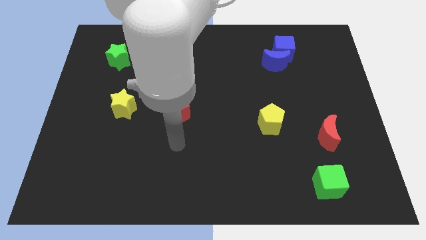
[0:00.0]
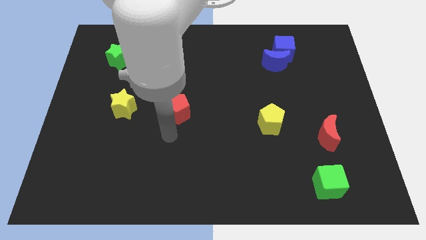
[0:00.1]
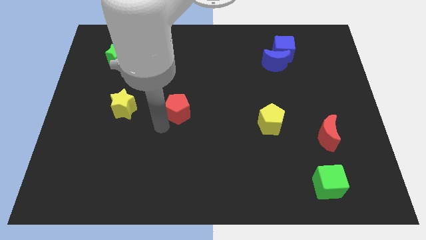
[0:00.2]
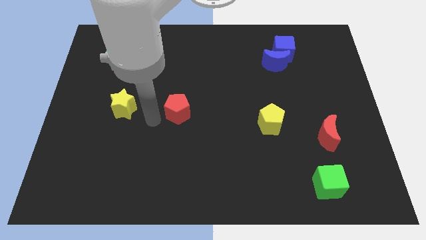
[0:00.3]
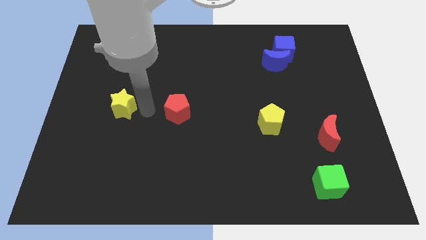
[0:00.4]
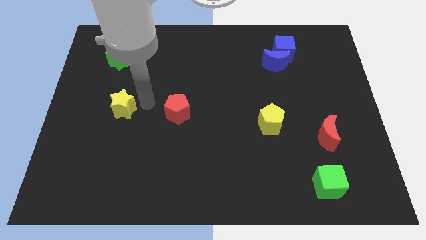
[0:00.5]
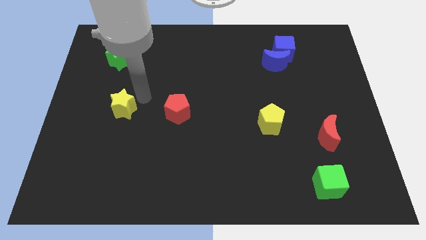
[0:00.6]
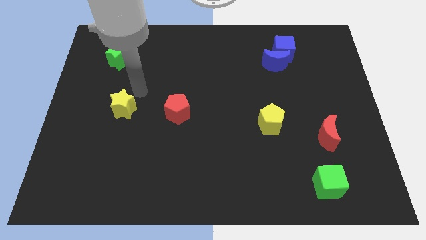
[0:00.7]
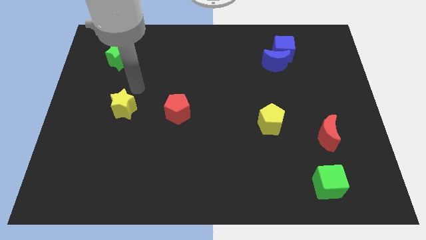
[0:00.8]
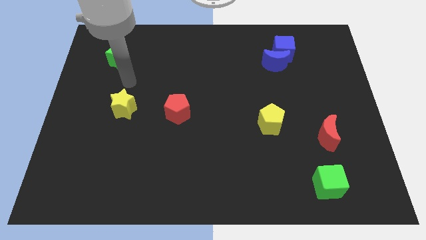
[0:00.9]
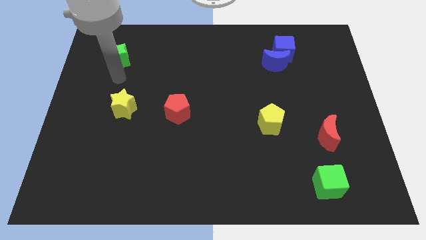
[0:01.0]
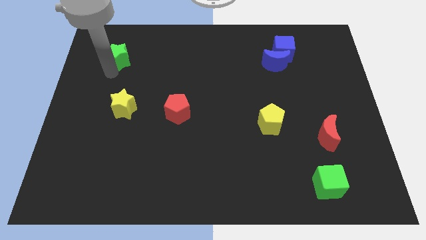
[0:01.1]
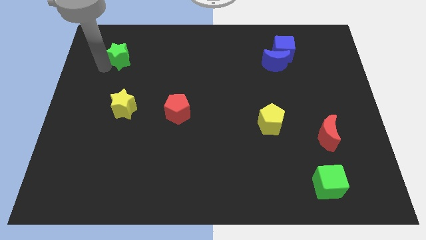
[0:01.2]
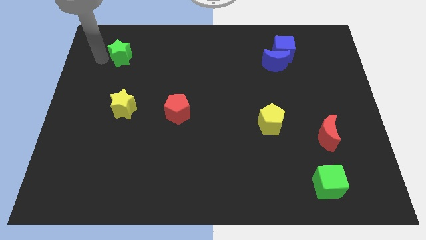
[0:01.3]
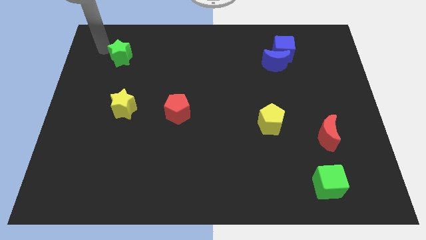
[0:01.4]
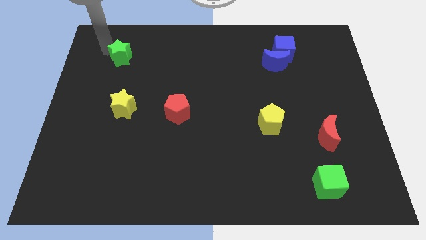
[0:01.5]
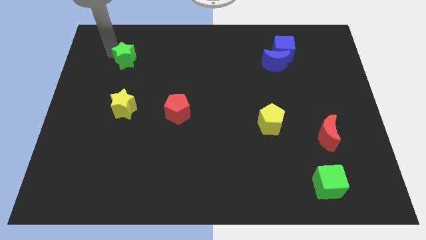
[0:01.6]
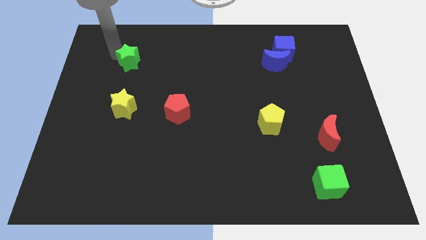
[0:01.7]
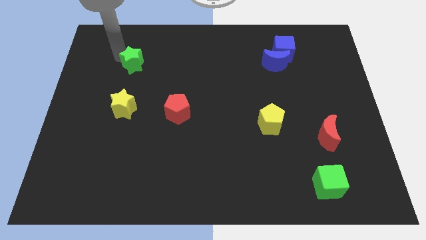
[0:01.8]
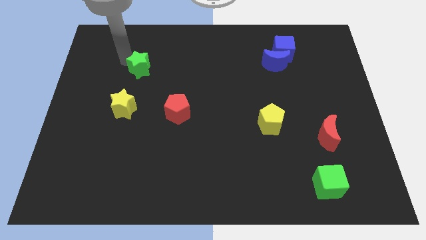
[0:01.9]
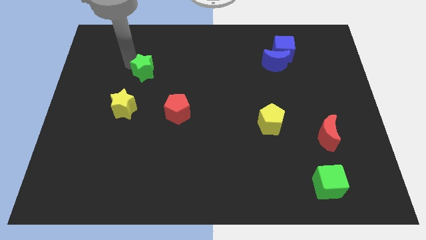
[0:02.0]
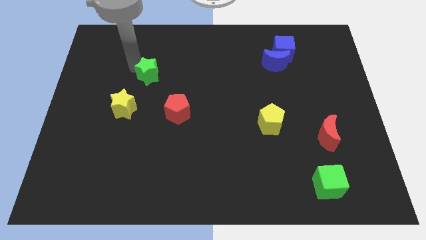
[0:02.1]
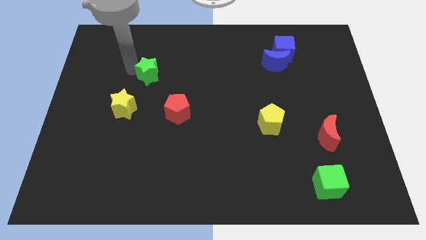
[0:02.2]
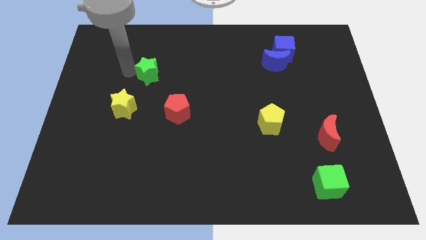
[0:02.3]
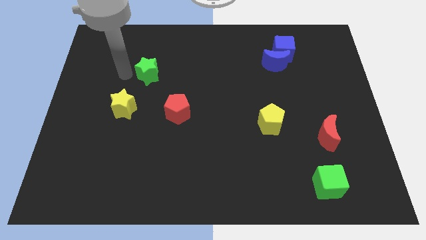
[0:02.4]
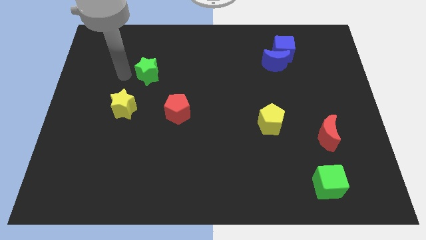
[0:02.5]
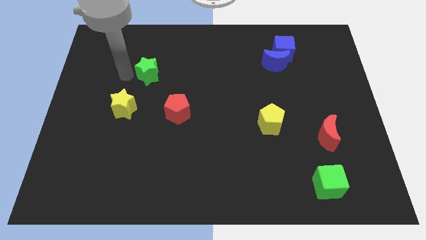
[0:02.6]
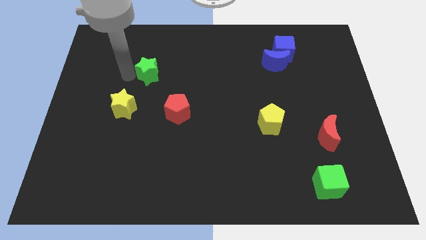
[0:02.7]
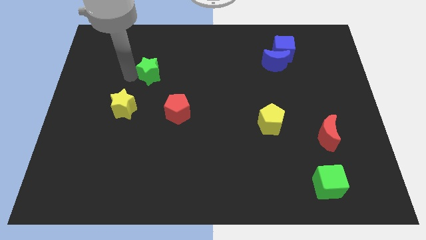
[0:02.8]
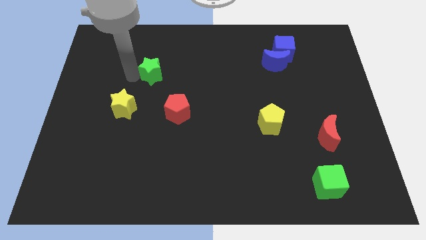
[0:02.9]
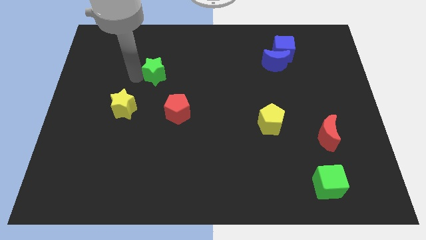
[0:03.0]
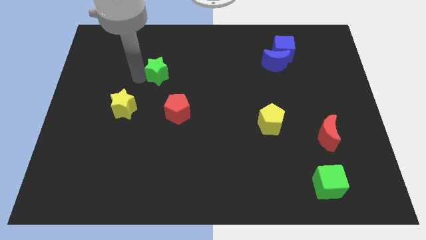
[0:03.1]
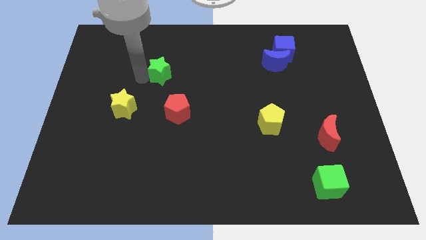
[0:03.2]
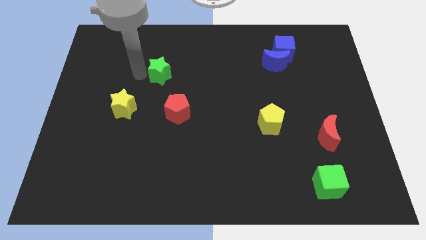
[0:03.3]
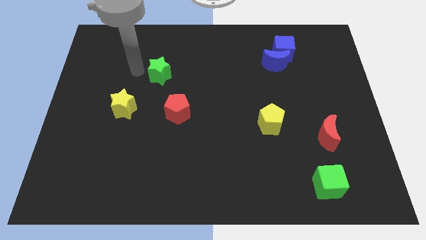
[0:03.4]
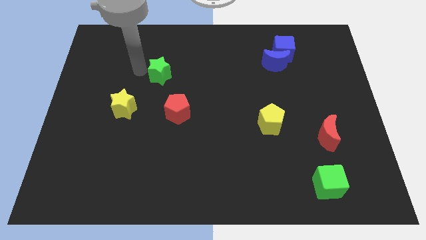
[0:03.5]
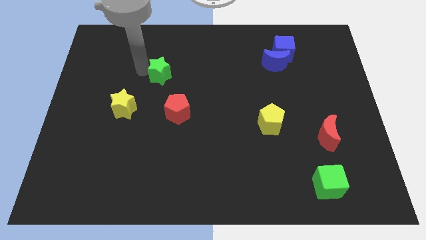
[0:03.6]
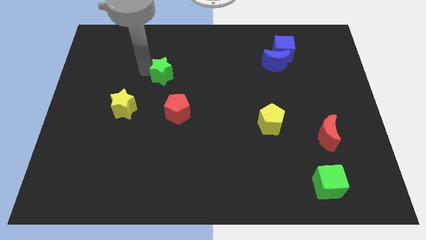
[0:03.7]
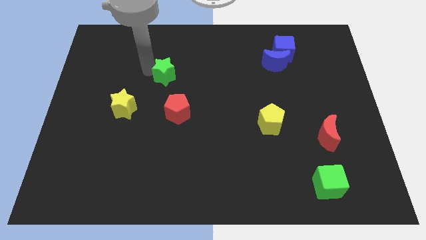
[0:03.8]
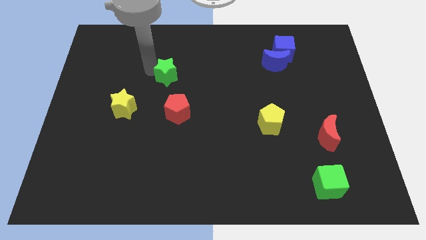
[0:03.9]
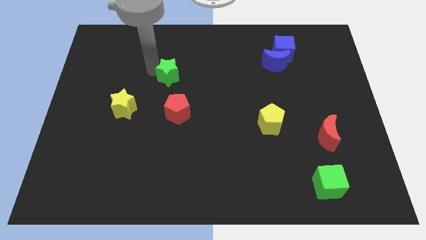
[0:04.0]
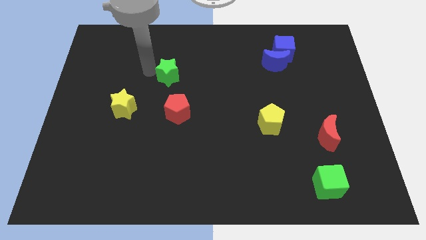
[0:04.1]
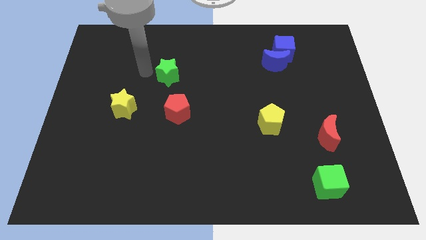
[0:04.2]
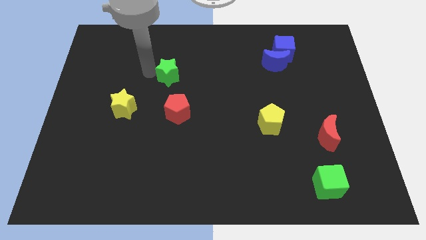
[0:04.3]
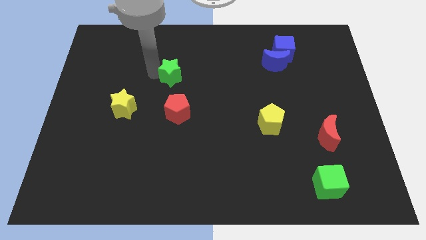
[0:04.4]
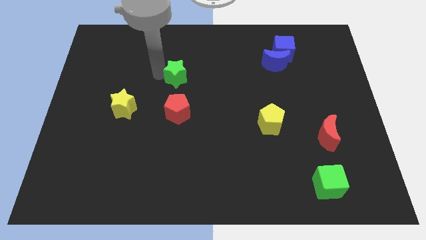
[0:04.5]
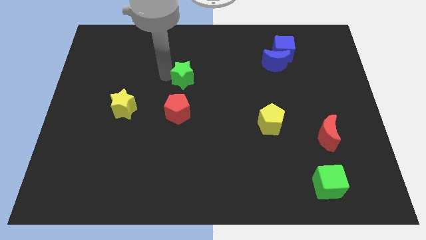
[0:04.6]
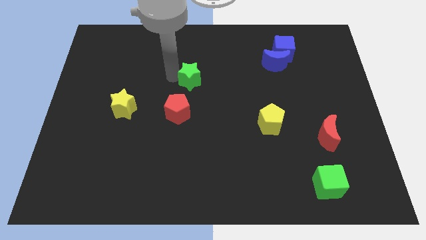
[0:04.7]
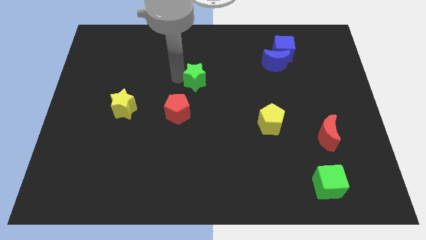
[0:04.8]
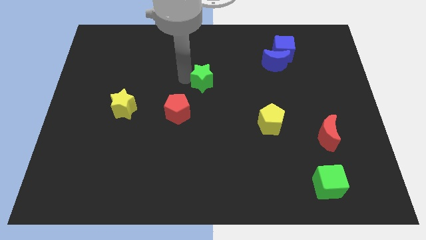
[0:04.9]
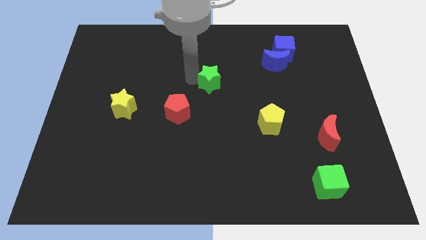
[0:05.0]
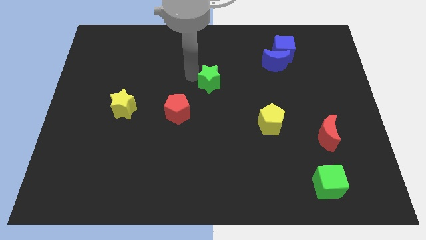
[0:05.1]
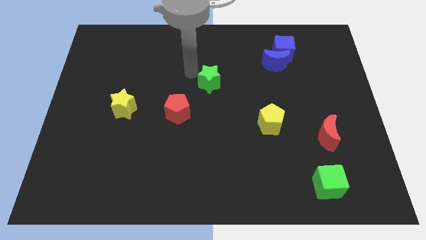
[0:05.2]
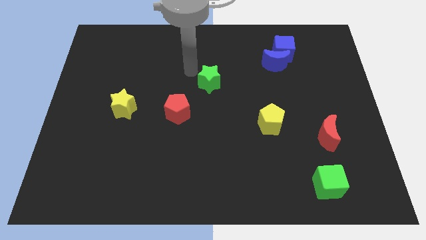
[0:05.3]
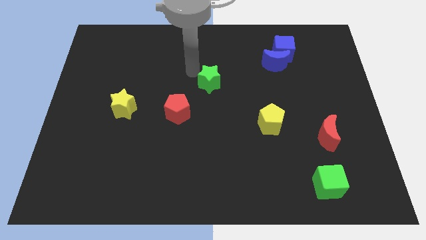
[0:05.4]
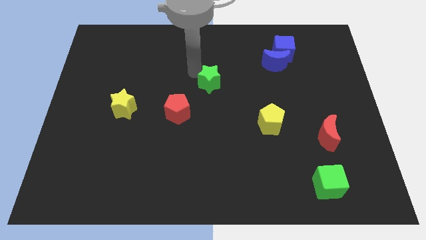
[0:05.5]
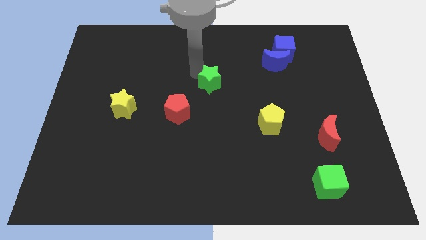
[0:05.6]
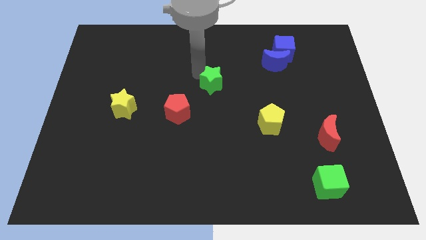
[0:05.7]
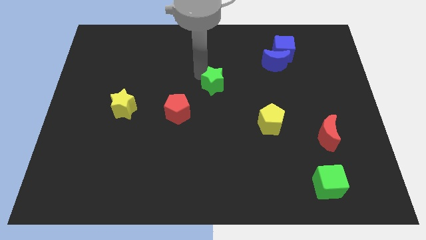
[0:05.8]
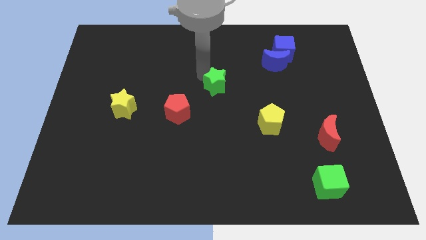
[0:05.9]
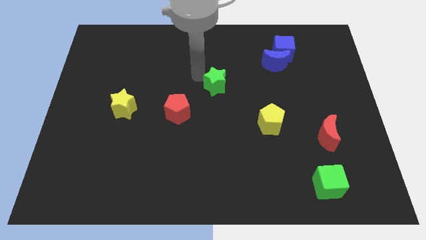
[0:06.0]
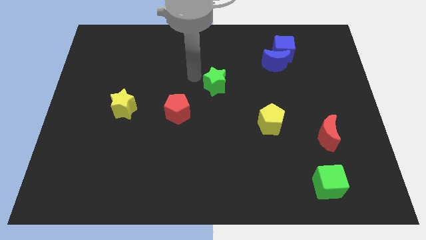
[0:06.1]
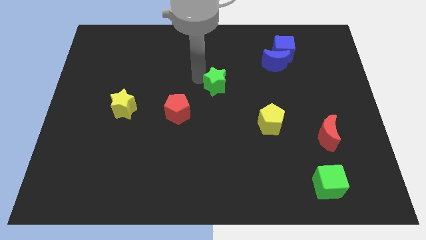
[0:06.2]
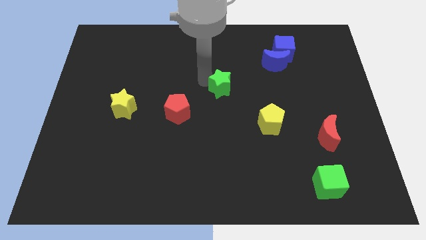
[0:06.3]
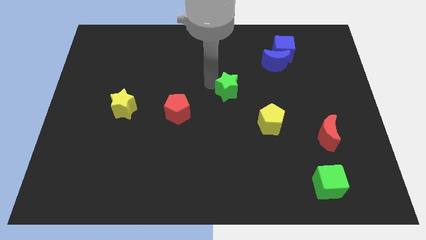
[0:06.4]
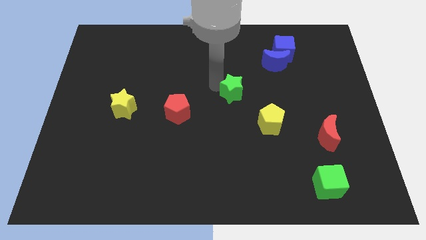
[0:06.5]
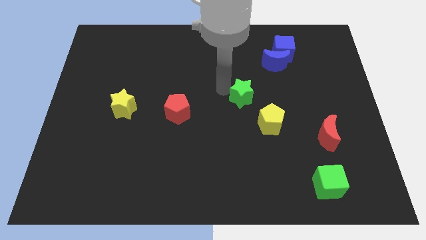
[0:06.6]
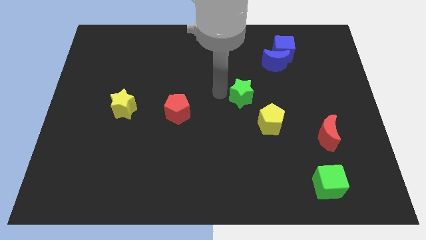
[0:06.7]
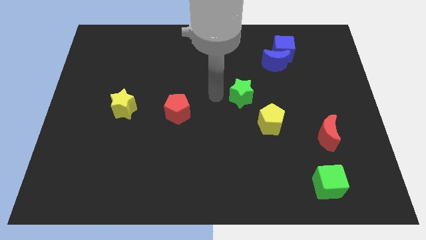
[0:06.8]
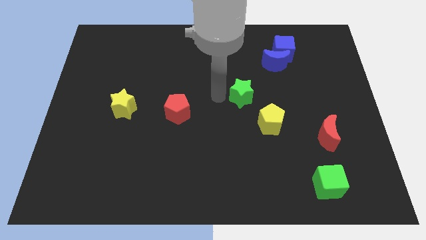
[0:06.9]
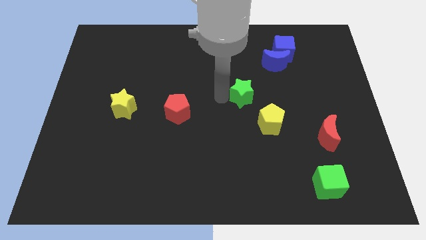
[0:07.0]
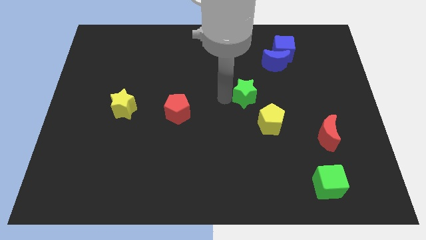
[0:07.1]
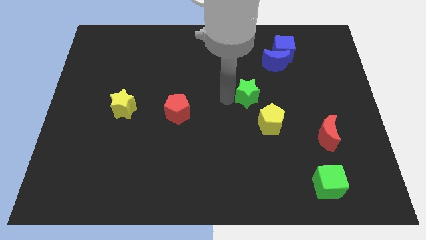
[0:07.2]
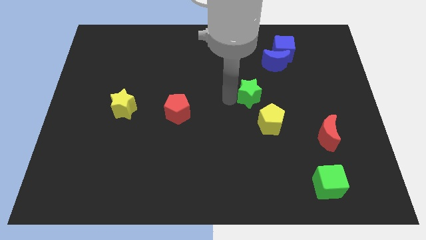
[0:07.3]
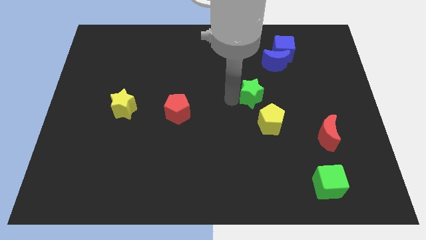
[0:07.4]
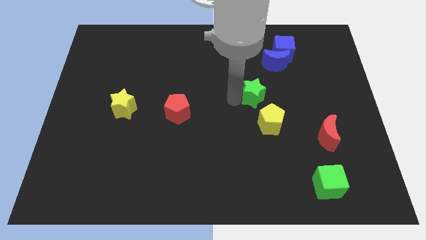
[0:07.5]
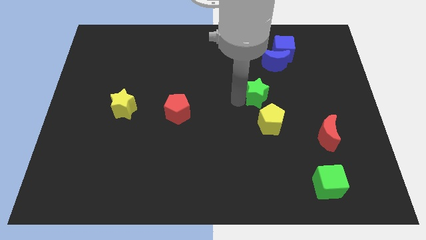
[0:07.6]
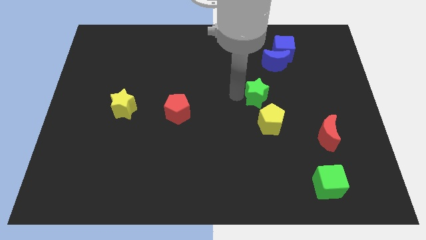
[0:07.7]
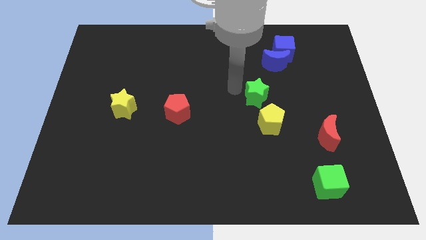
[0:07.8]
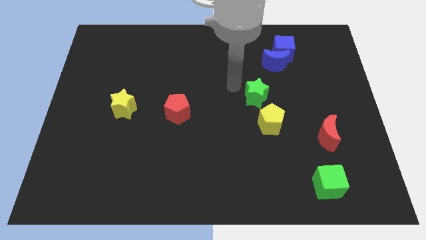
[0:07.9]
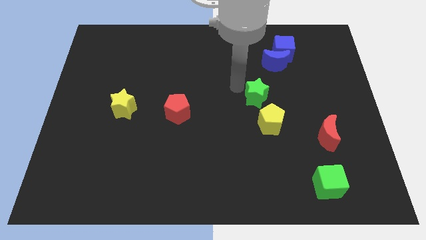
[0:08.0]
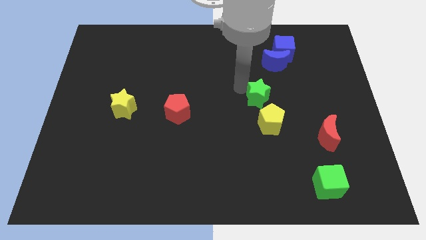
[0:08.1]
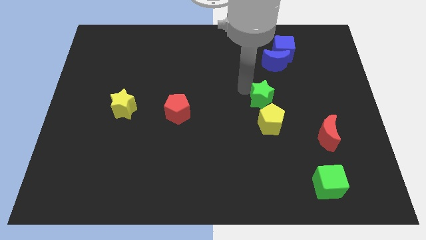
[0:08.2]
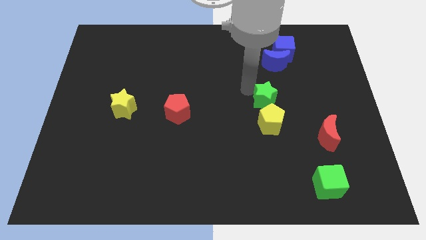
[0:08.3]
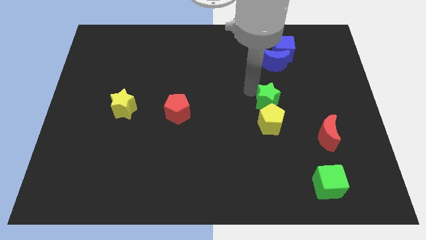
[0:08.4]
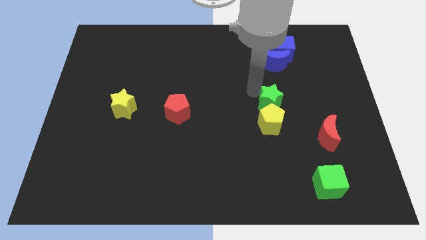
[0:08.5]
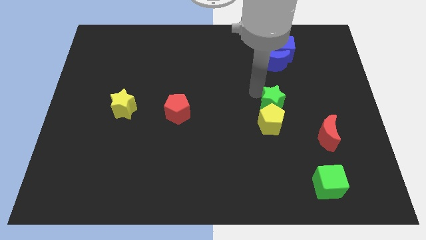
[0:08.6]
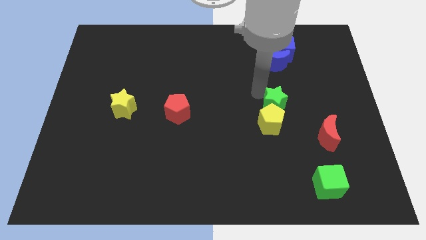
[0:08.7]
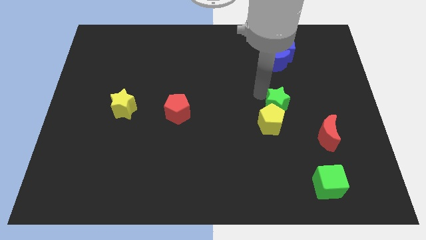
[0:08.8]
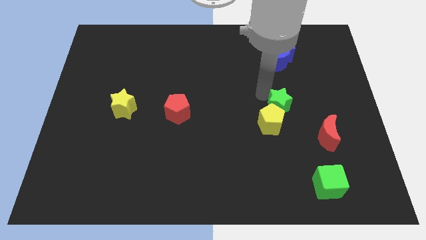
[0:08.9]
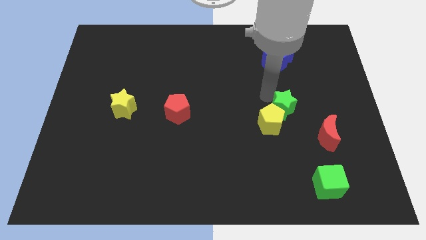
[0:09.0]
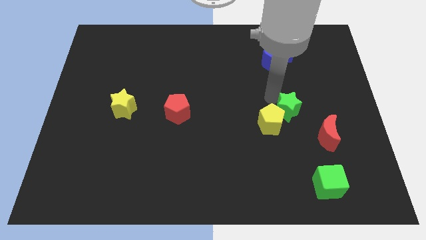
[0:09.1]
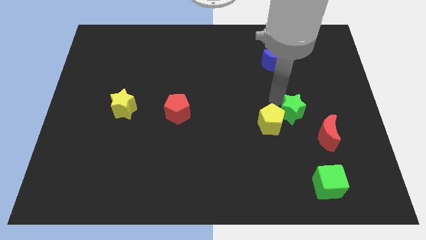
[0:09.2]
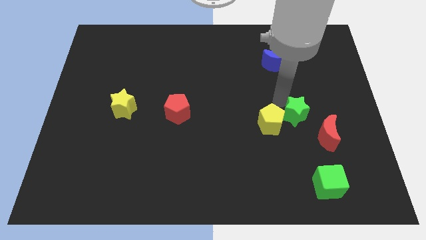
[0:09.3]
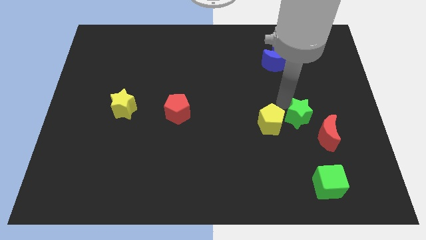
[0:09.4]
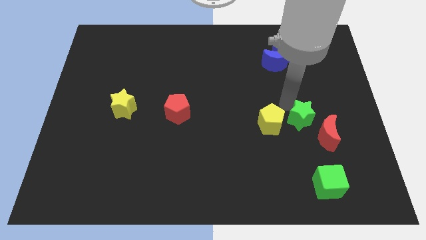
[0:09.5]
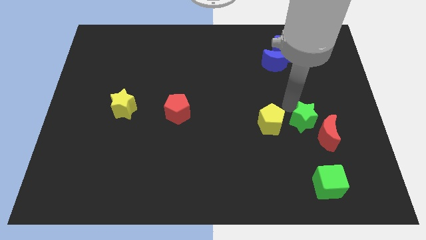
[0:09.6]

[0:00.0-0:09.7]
slide the green star to the red moon
